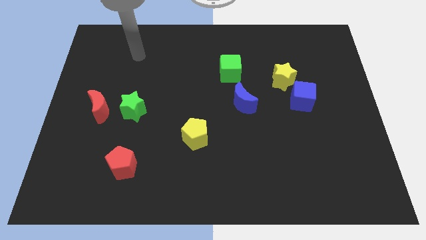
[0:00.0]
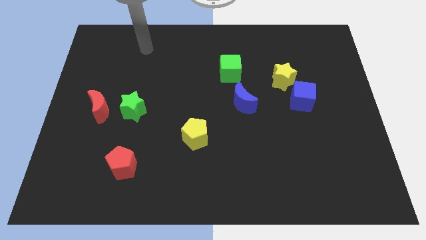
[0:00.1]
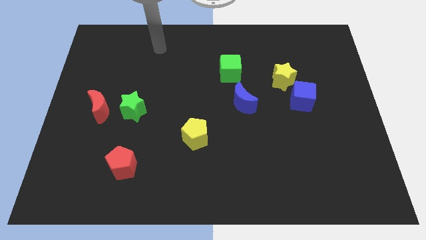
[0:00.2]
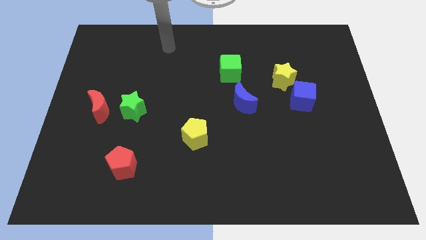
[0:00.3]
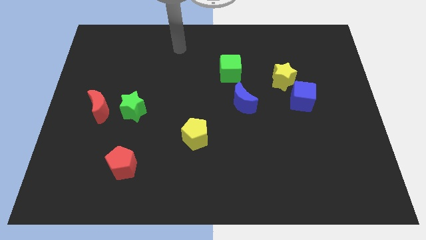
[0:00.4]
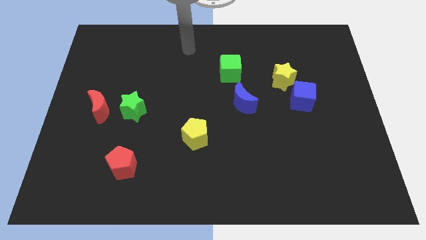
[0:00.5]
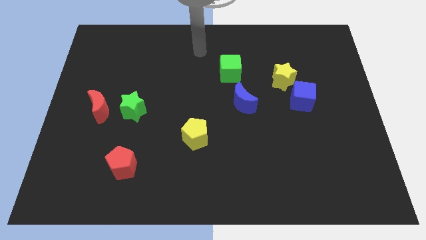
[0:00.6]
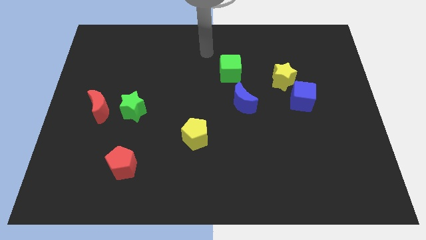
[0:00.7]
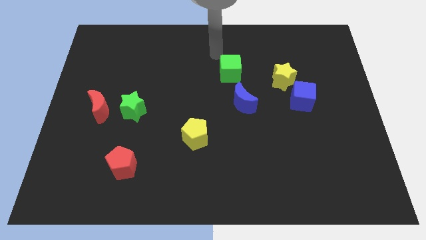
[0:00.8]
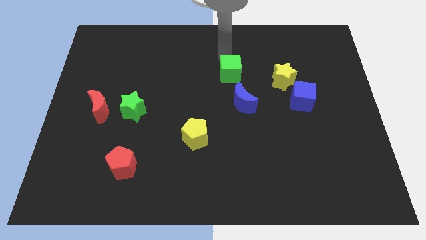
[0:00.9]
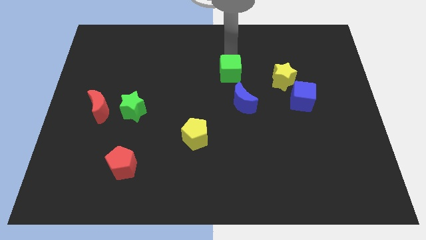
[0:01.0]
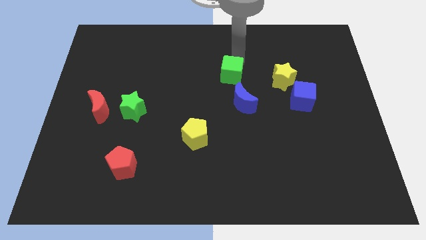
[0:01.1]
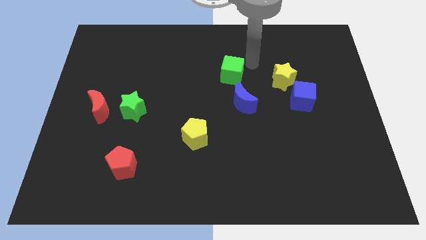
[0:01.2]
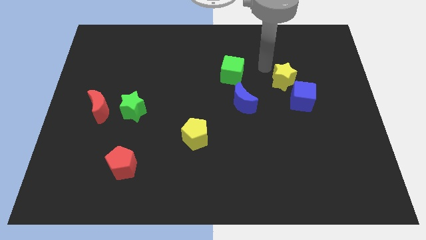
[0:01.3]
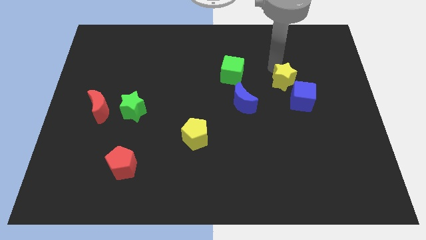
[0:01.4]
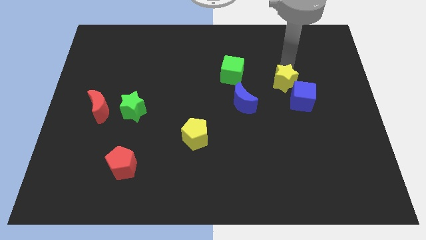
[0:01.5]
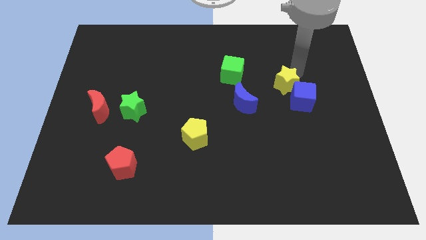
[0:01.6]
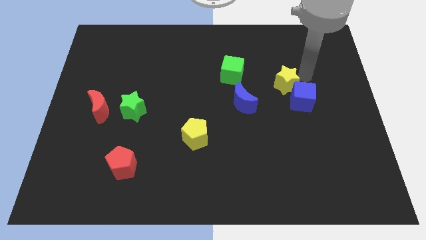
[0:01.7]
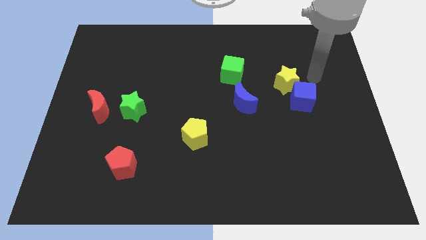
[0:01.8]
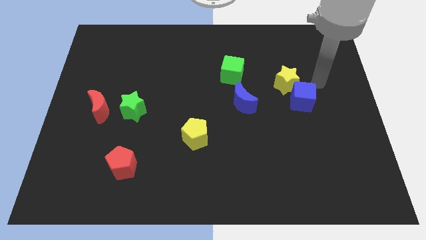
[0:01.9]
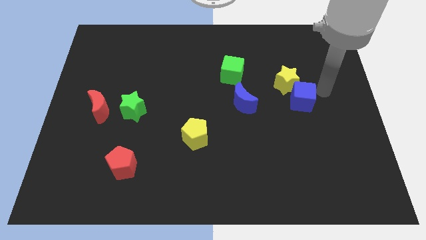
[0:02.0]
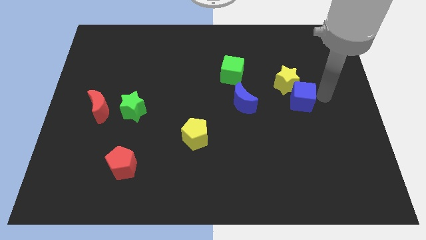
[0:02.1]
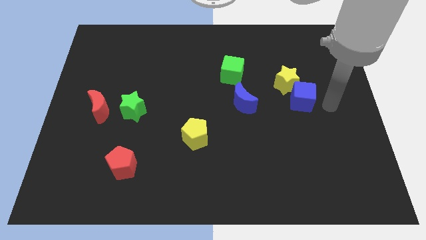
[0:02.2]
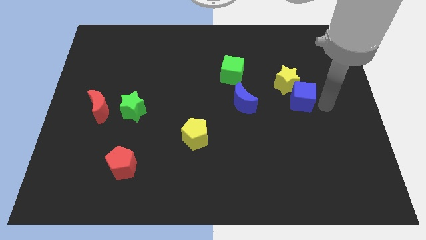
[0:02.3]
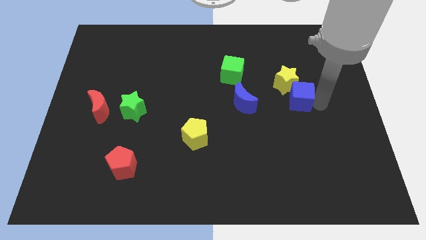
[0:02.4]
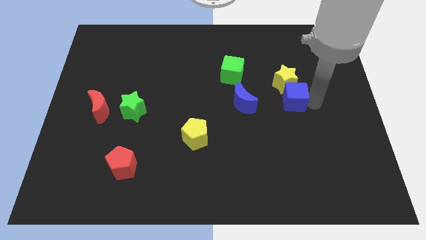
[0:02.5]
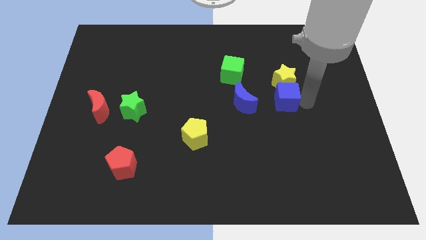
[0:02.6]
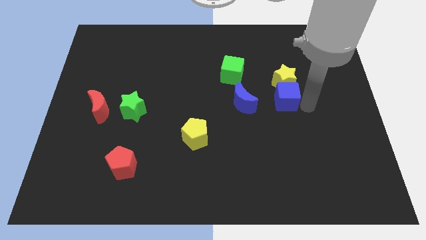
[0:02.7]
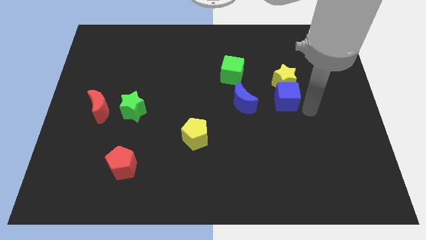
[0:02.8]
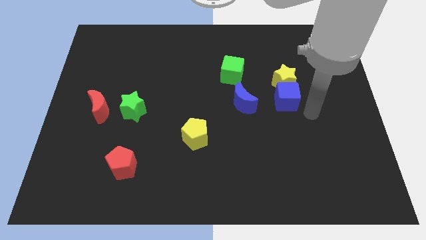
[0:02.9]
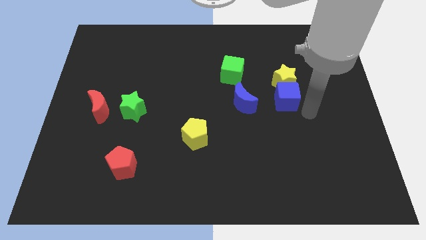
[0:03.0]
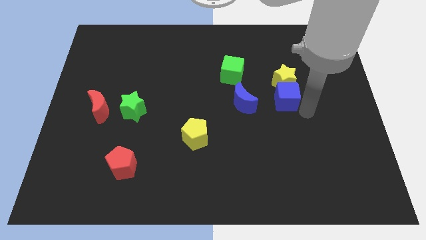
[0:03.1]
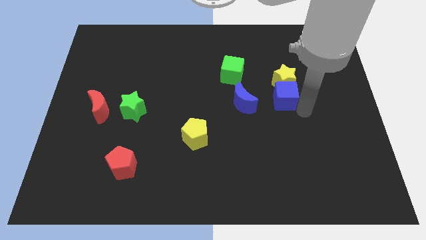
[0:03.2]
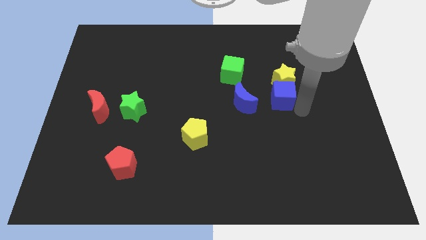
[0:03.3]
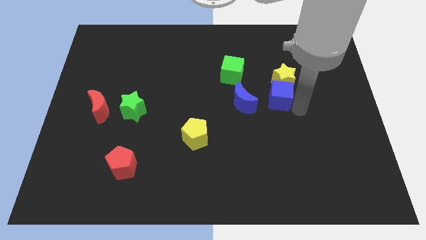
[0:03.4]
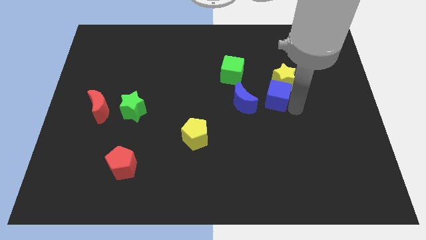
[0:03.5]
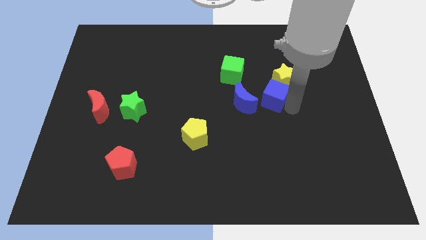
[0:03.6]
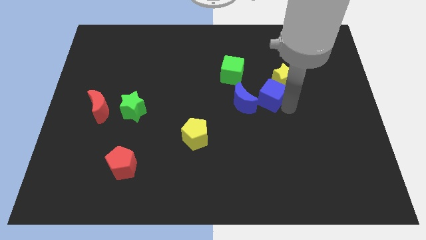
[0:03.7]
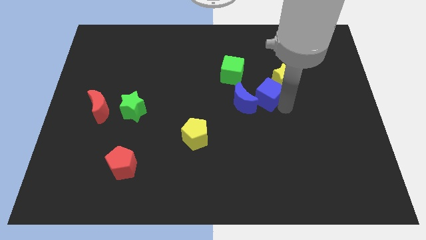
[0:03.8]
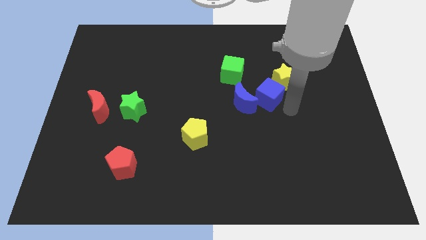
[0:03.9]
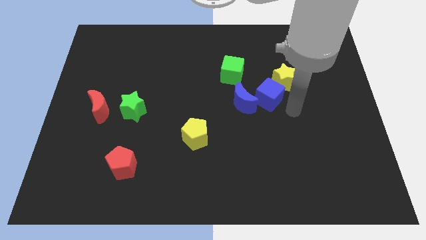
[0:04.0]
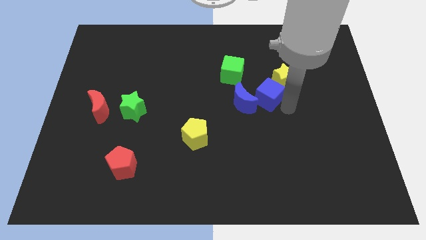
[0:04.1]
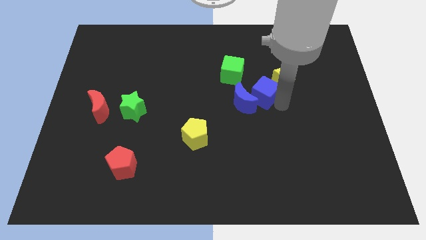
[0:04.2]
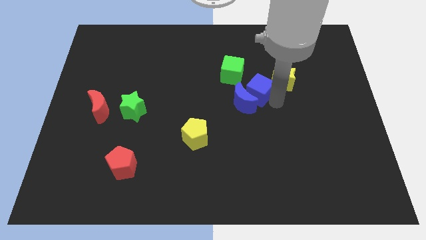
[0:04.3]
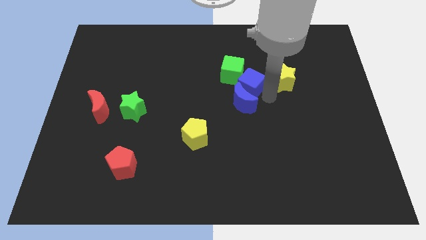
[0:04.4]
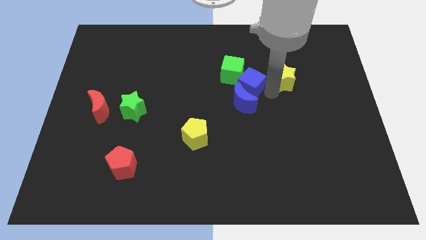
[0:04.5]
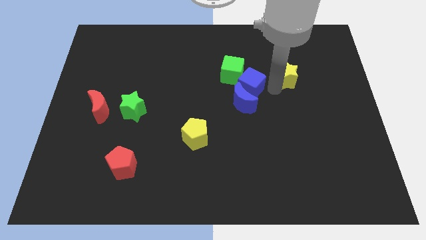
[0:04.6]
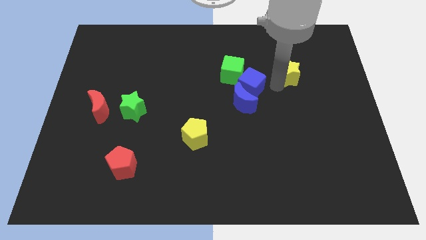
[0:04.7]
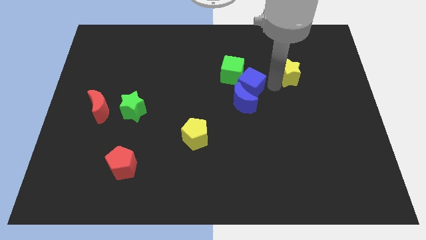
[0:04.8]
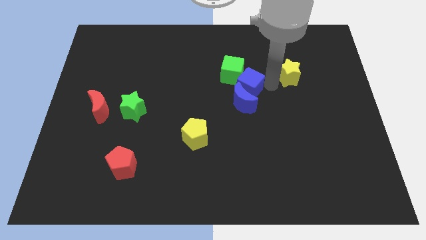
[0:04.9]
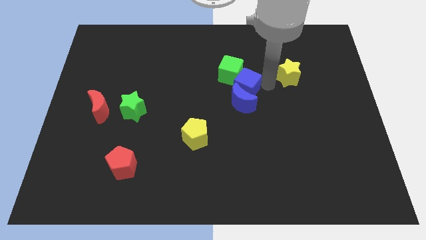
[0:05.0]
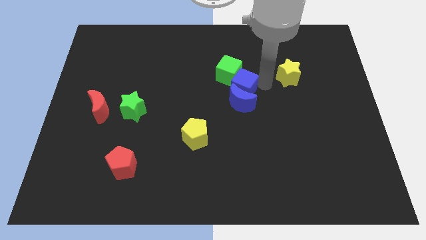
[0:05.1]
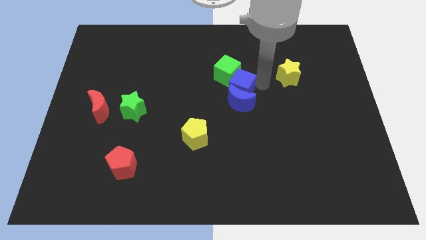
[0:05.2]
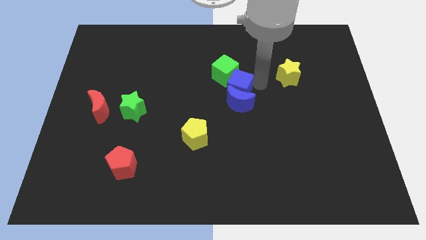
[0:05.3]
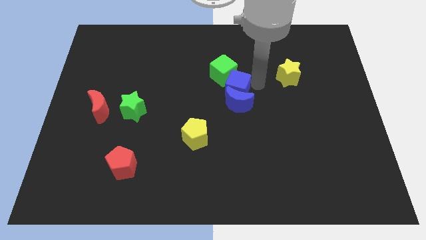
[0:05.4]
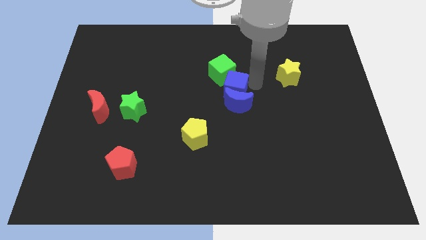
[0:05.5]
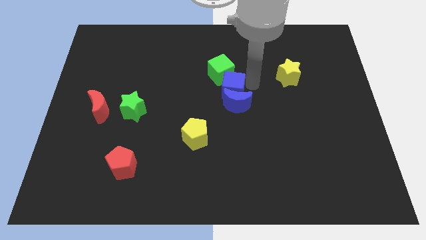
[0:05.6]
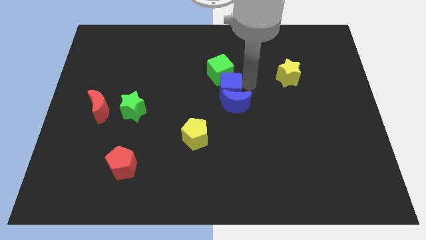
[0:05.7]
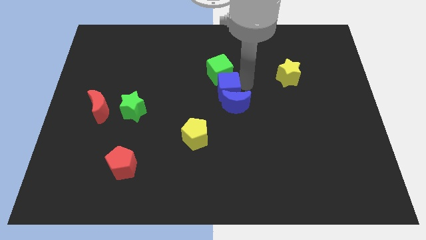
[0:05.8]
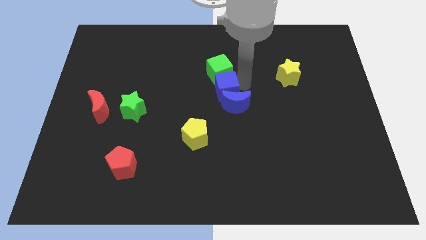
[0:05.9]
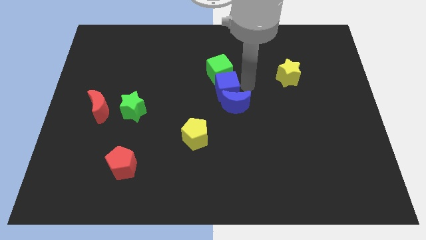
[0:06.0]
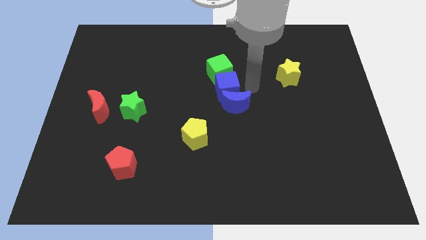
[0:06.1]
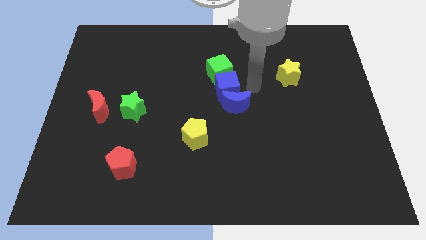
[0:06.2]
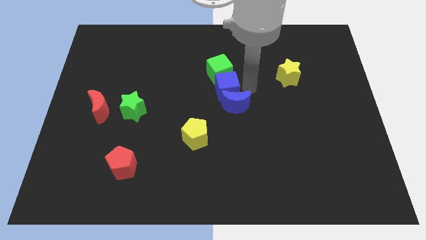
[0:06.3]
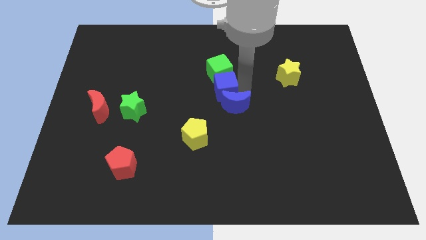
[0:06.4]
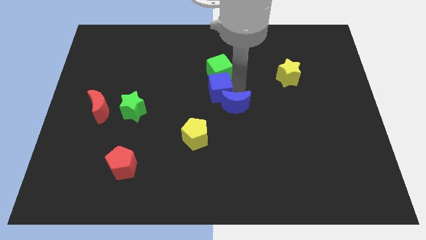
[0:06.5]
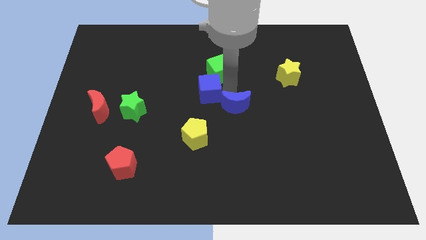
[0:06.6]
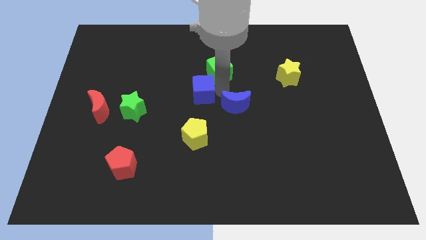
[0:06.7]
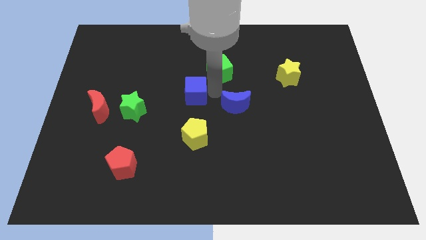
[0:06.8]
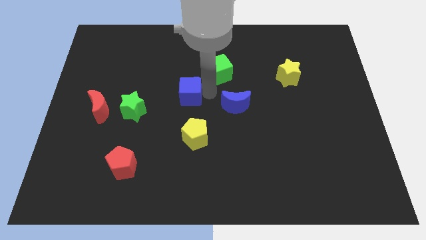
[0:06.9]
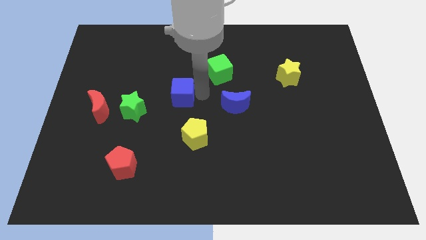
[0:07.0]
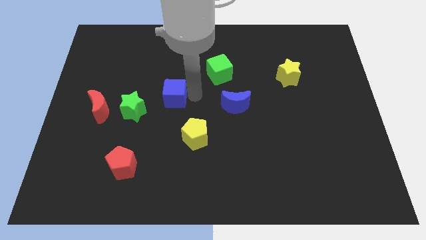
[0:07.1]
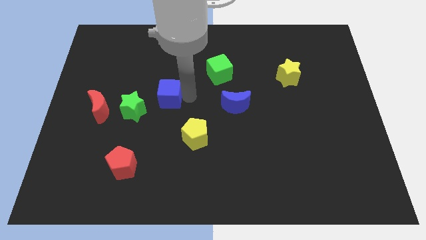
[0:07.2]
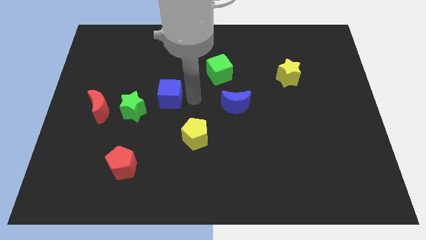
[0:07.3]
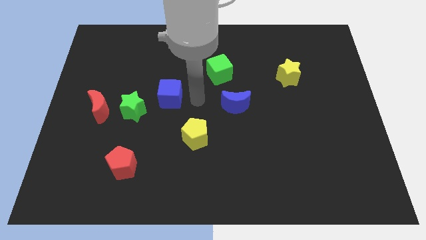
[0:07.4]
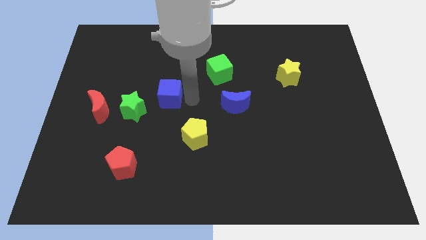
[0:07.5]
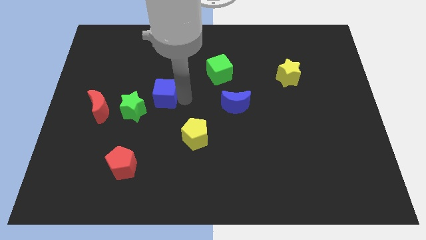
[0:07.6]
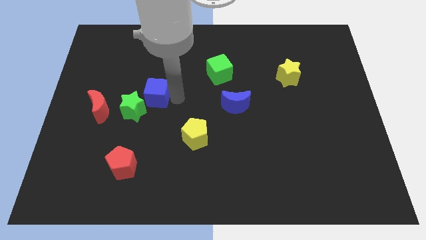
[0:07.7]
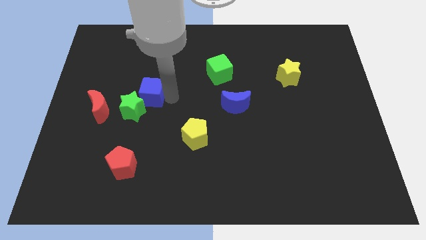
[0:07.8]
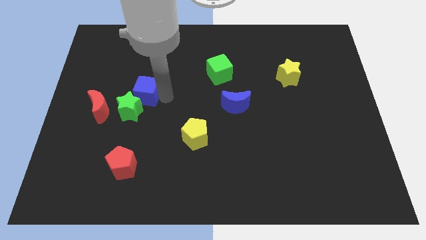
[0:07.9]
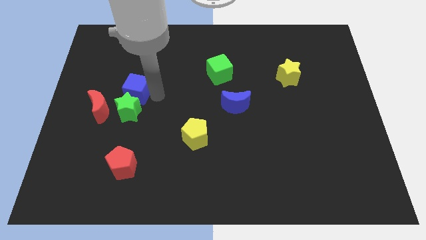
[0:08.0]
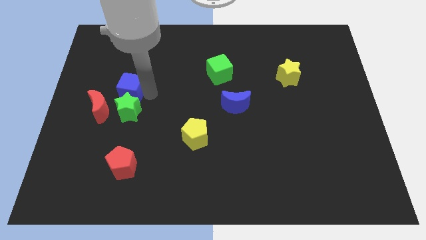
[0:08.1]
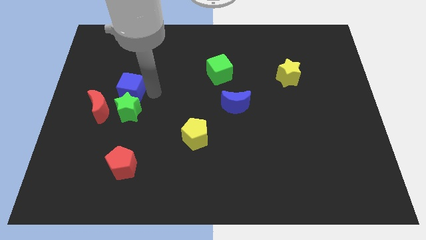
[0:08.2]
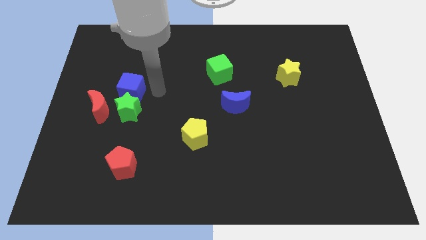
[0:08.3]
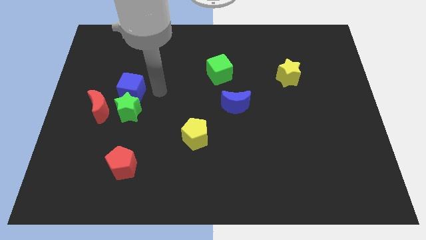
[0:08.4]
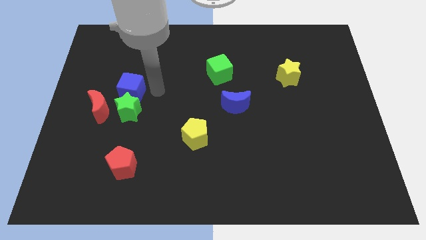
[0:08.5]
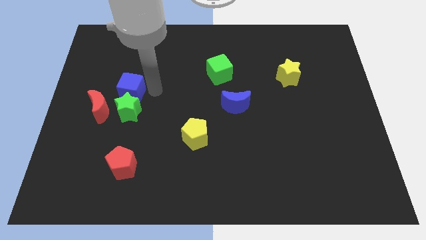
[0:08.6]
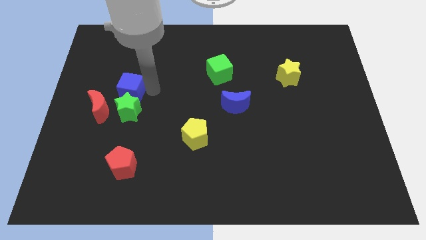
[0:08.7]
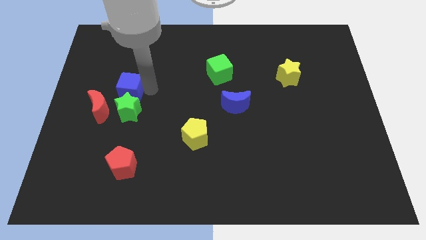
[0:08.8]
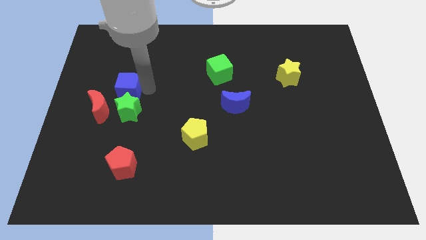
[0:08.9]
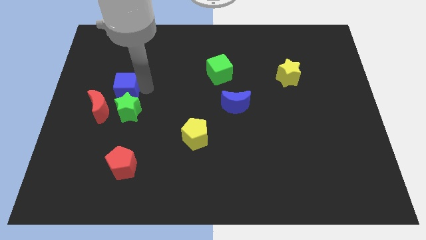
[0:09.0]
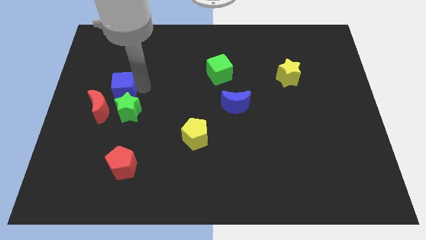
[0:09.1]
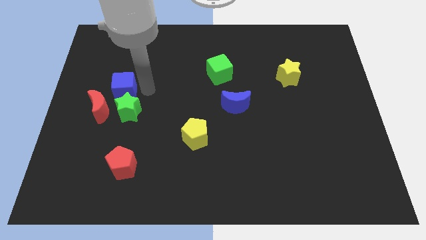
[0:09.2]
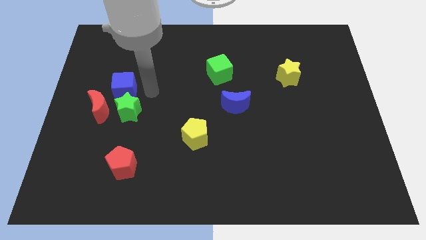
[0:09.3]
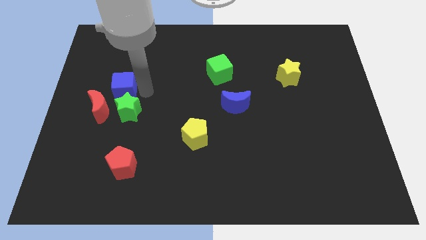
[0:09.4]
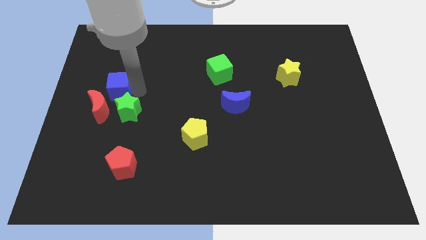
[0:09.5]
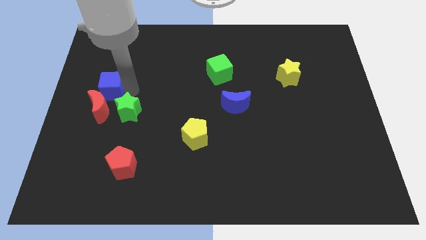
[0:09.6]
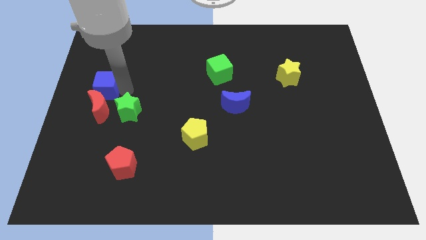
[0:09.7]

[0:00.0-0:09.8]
push the blue cube to the left side of the board
